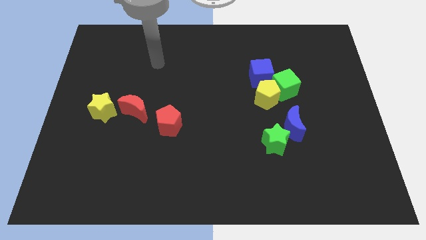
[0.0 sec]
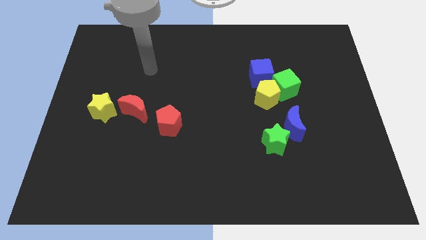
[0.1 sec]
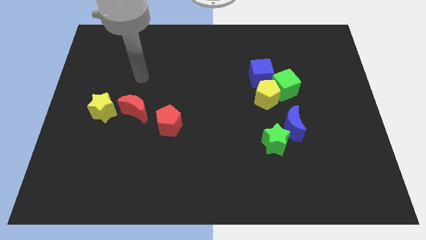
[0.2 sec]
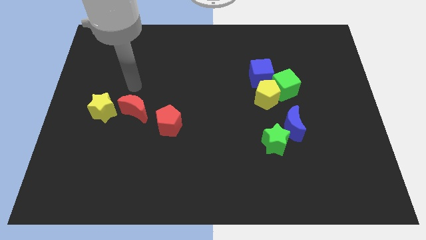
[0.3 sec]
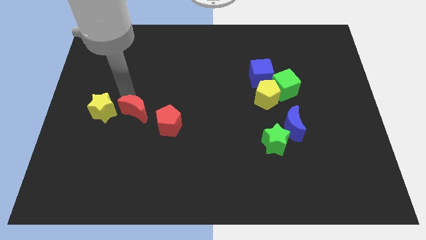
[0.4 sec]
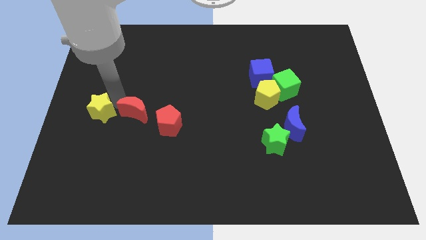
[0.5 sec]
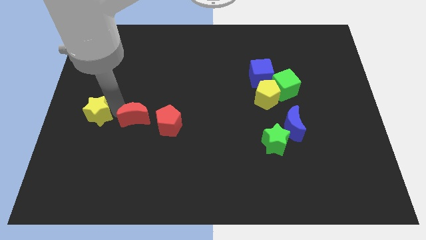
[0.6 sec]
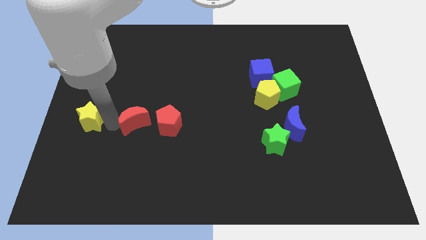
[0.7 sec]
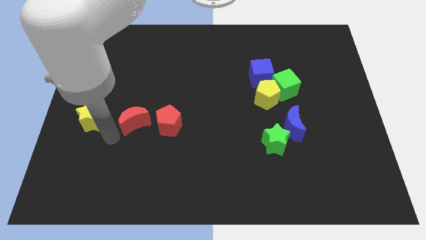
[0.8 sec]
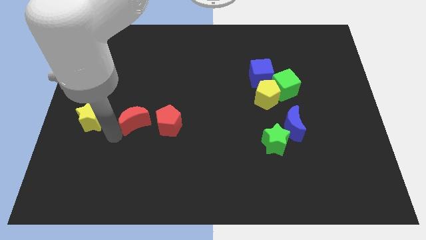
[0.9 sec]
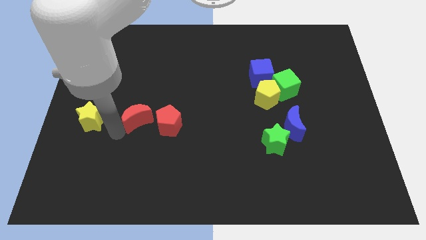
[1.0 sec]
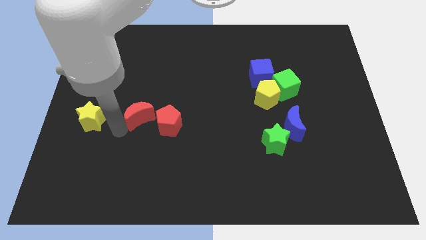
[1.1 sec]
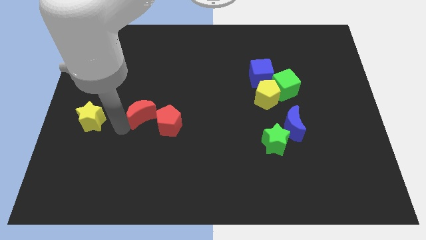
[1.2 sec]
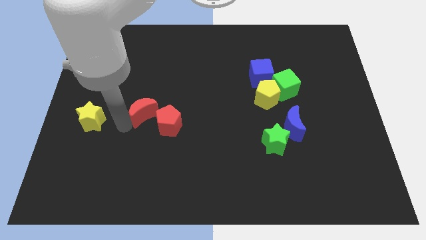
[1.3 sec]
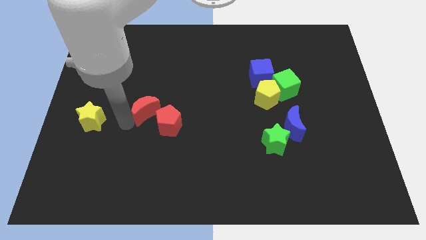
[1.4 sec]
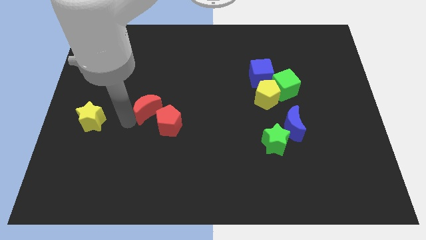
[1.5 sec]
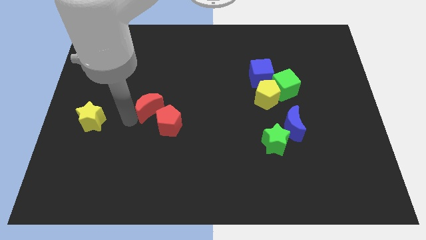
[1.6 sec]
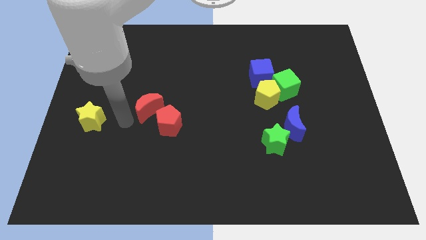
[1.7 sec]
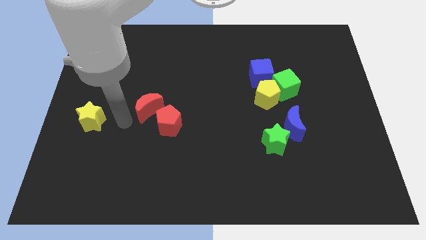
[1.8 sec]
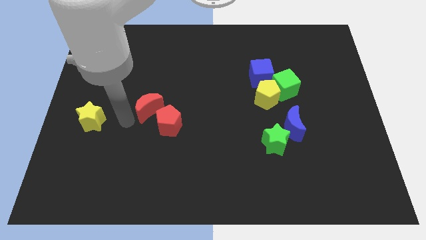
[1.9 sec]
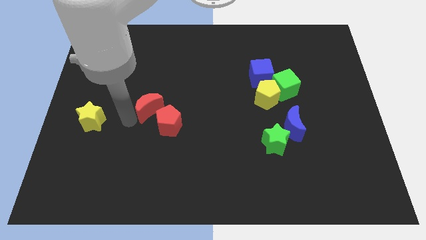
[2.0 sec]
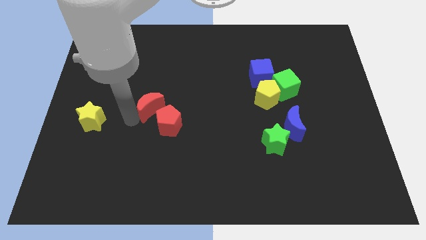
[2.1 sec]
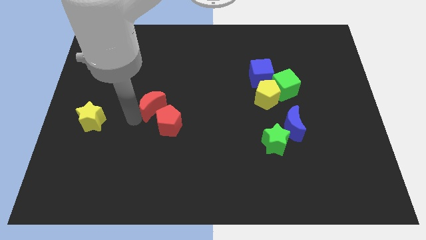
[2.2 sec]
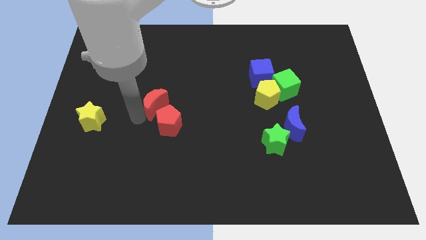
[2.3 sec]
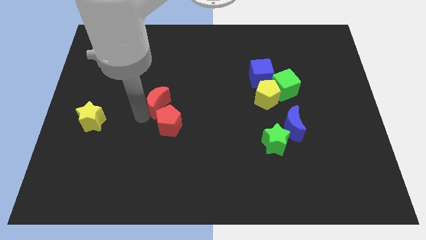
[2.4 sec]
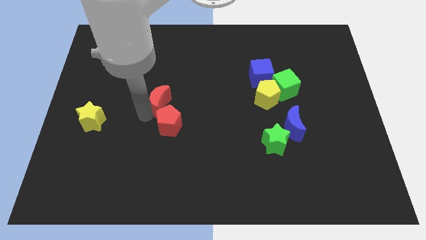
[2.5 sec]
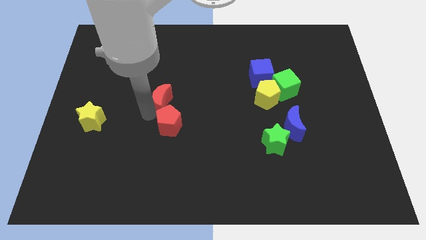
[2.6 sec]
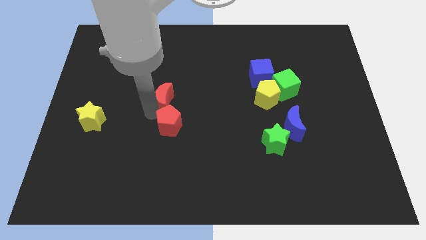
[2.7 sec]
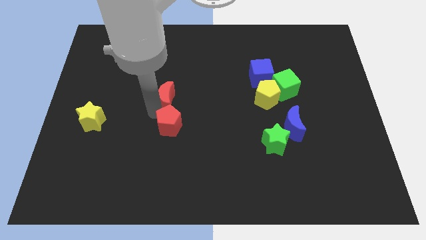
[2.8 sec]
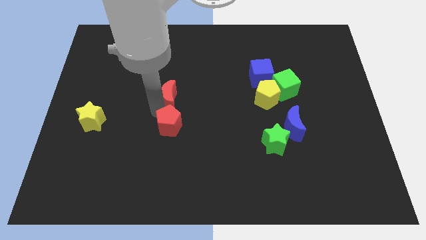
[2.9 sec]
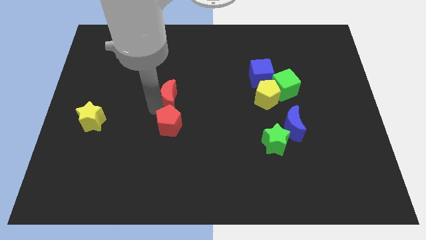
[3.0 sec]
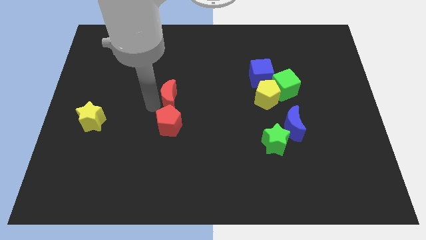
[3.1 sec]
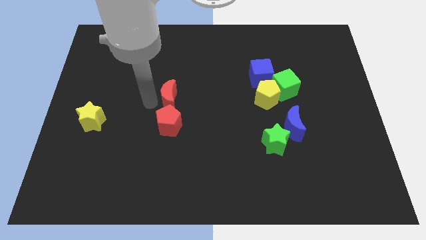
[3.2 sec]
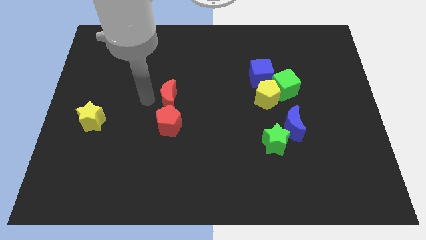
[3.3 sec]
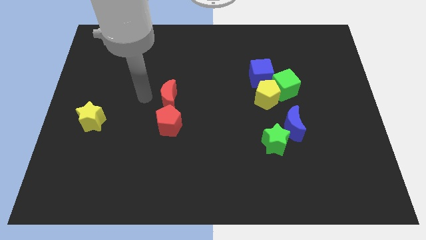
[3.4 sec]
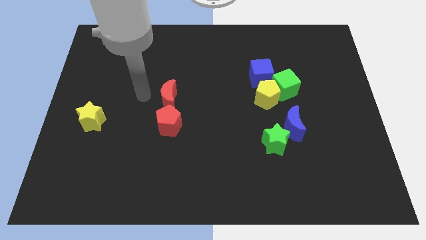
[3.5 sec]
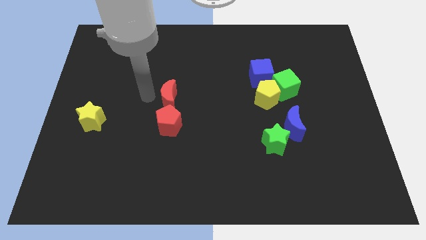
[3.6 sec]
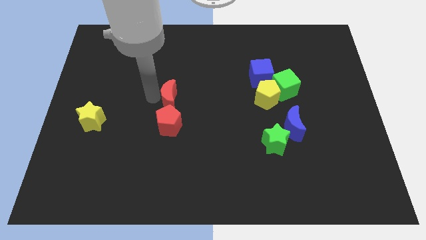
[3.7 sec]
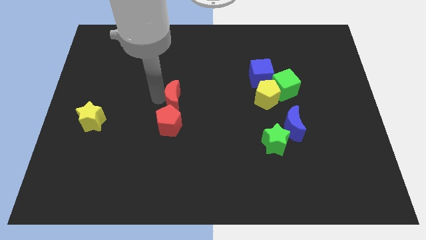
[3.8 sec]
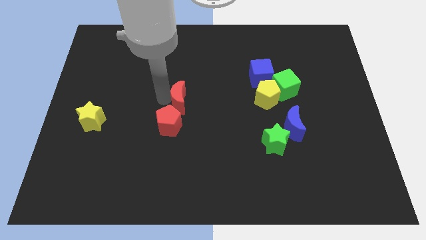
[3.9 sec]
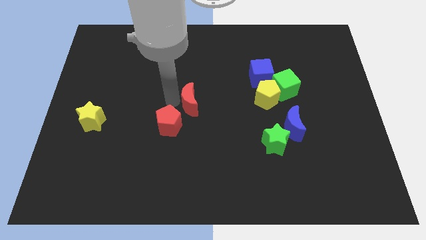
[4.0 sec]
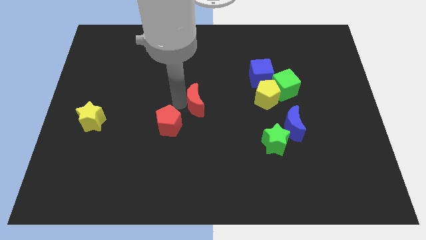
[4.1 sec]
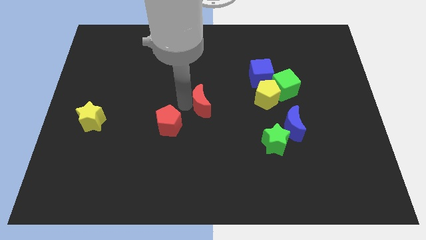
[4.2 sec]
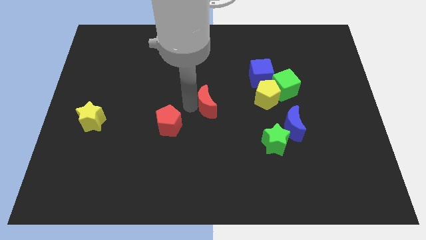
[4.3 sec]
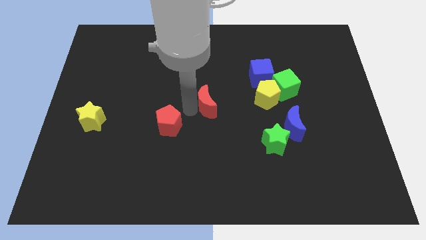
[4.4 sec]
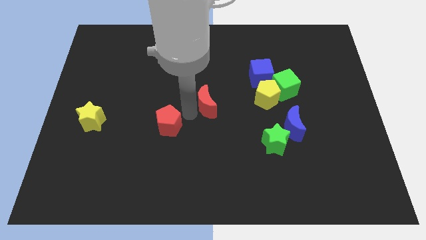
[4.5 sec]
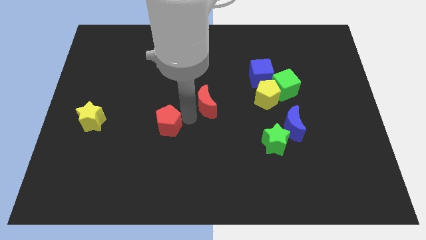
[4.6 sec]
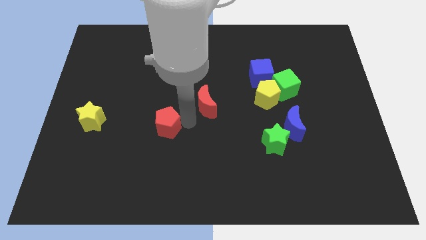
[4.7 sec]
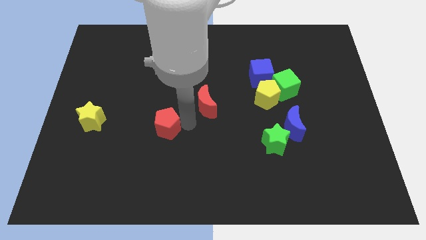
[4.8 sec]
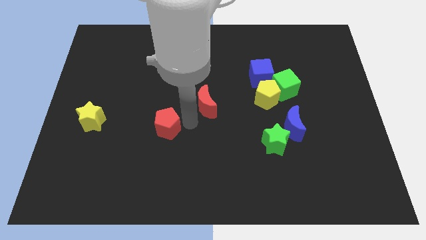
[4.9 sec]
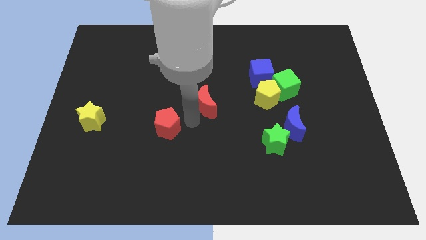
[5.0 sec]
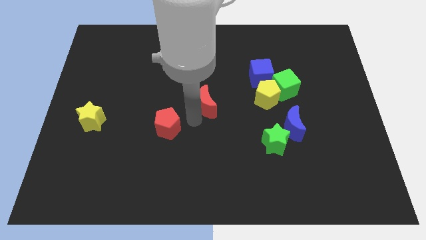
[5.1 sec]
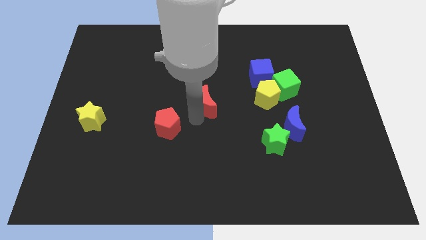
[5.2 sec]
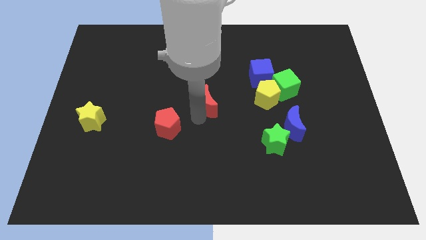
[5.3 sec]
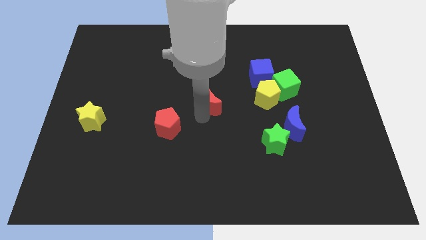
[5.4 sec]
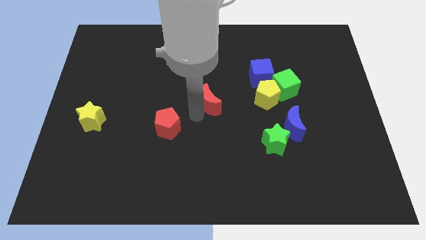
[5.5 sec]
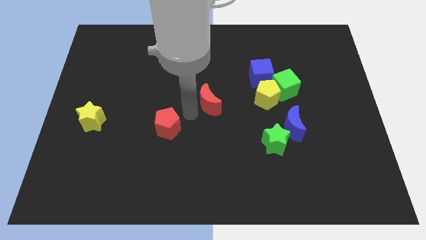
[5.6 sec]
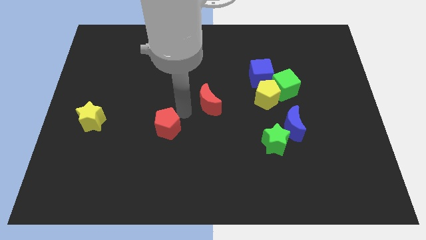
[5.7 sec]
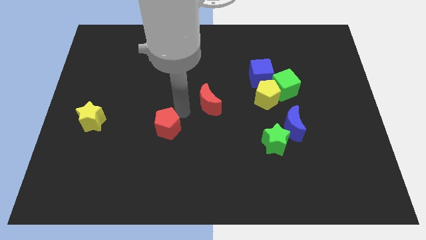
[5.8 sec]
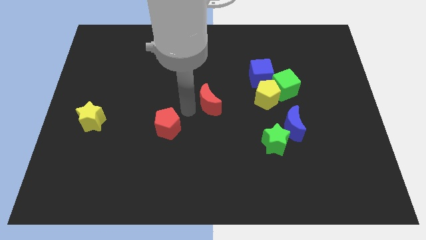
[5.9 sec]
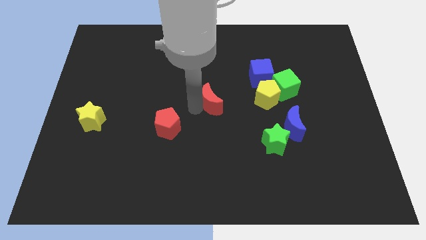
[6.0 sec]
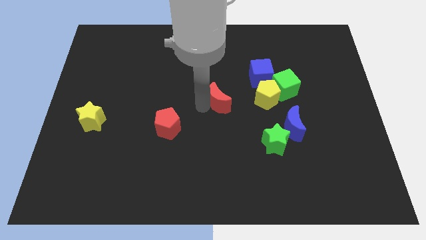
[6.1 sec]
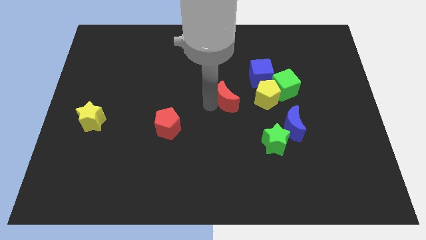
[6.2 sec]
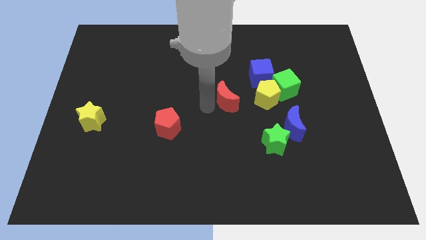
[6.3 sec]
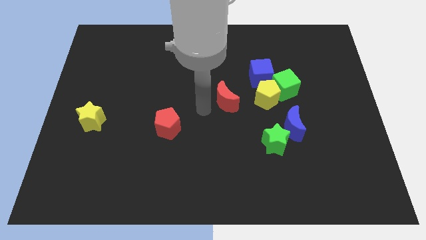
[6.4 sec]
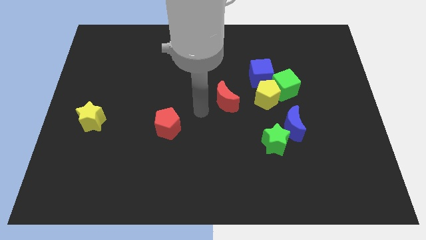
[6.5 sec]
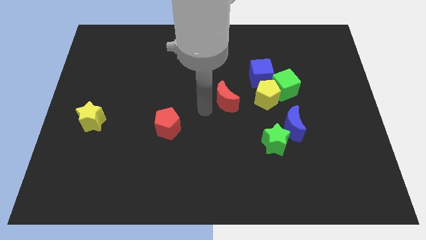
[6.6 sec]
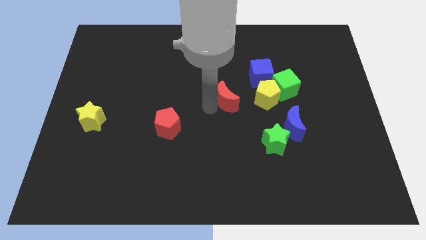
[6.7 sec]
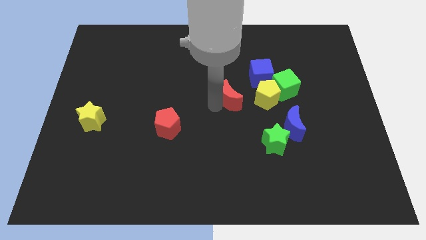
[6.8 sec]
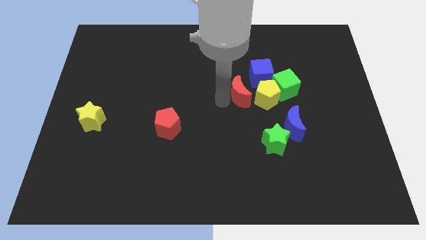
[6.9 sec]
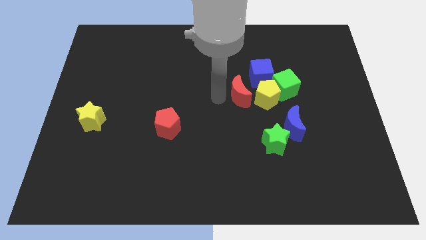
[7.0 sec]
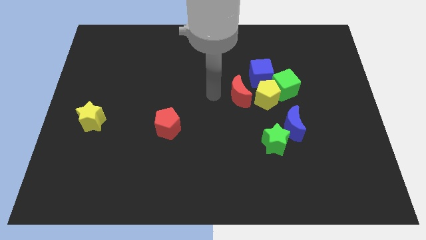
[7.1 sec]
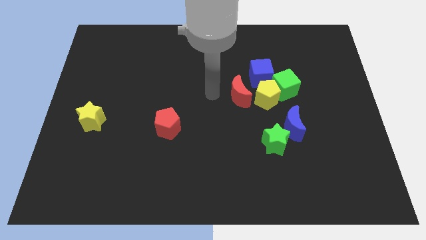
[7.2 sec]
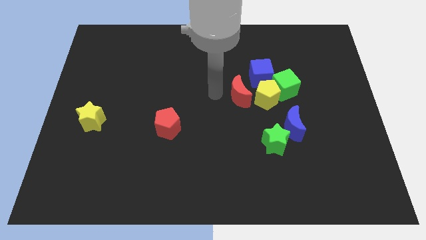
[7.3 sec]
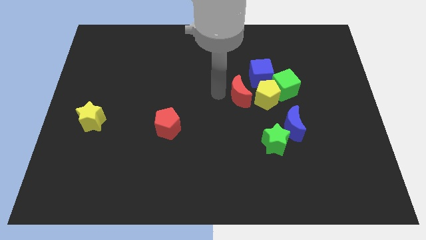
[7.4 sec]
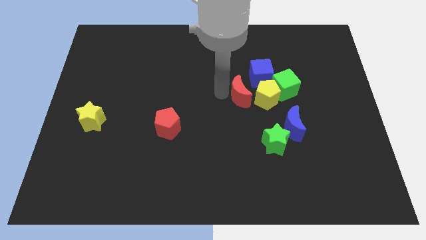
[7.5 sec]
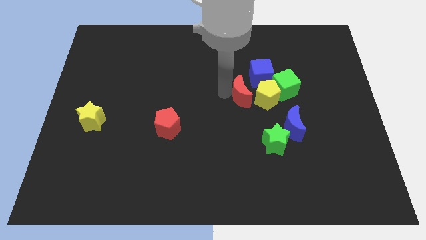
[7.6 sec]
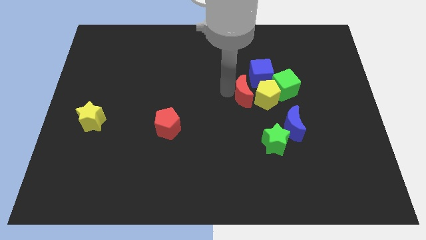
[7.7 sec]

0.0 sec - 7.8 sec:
move the red moon towards the yellow pentagon
